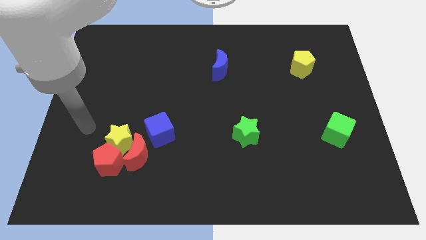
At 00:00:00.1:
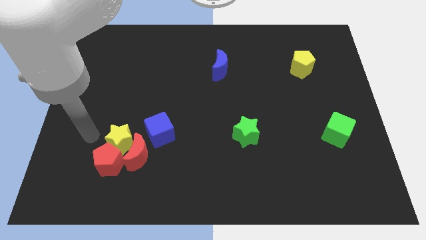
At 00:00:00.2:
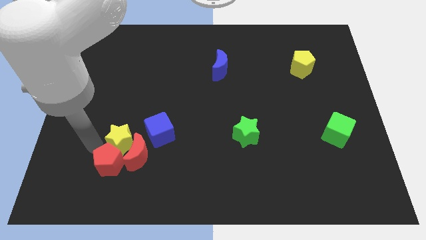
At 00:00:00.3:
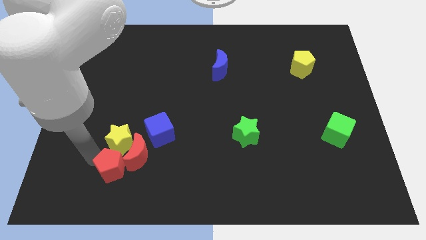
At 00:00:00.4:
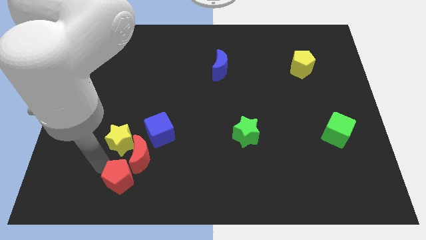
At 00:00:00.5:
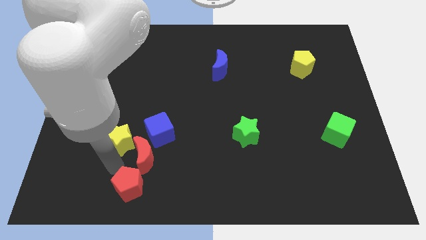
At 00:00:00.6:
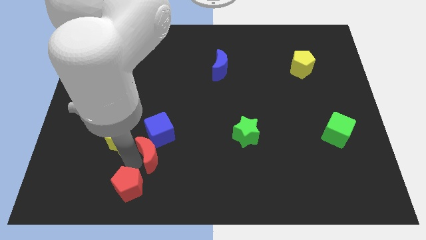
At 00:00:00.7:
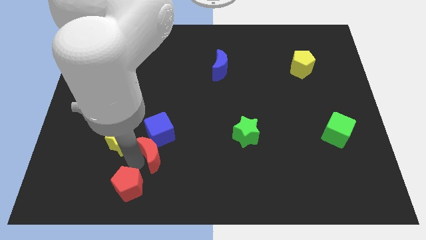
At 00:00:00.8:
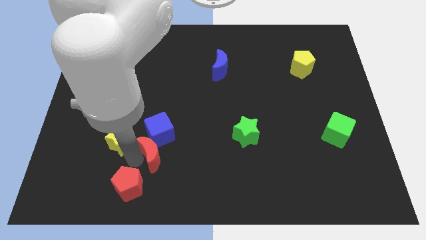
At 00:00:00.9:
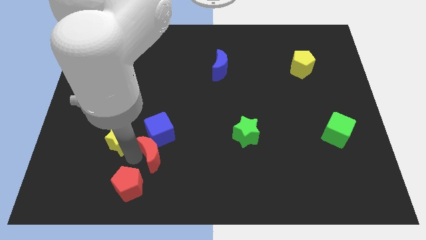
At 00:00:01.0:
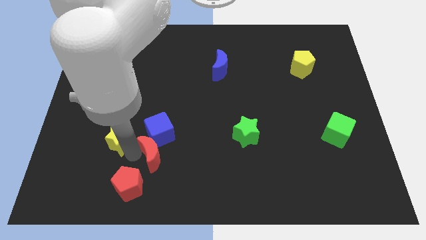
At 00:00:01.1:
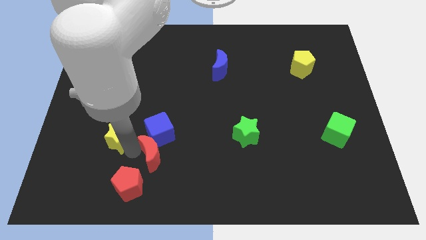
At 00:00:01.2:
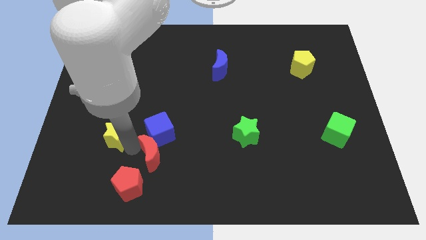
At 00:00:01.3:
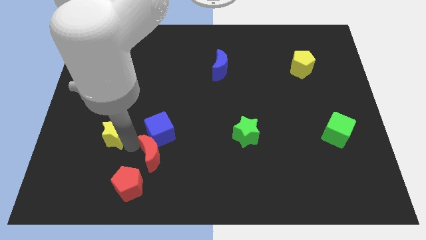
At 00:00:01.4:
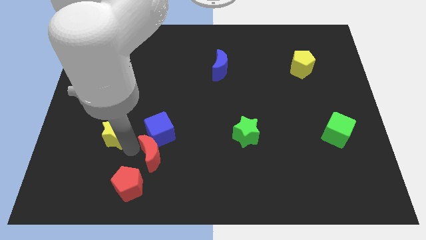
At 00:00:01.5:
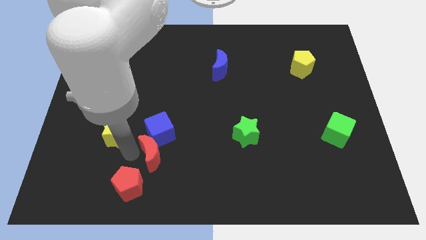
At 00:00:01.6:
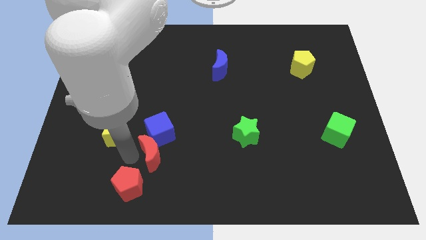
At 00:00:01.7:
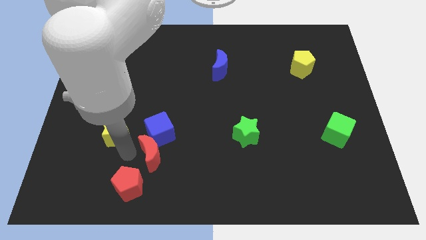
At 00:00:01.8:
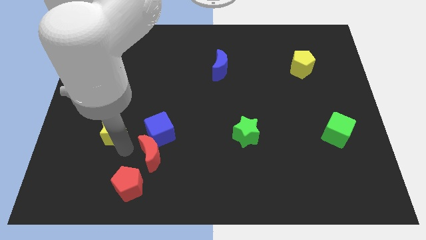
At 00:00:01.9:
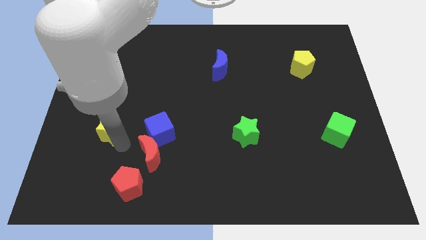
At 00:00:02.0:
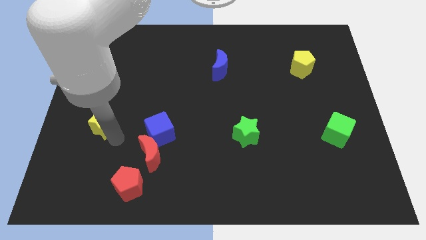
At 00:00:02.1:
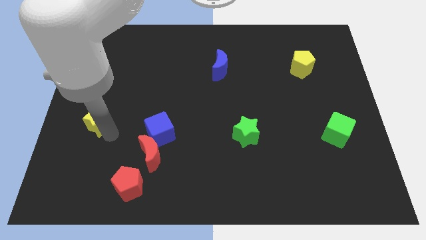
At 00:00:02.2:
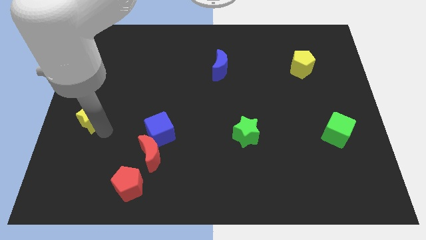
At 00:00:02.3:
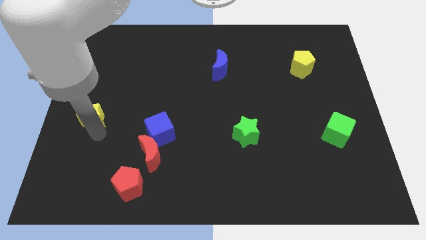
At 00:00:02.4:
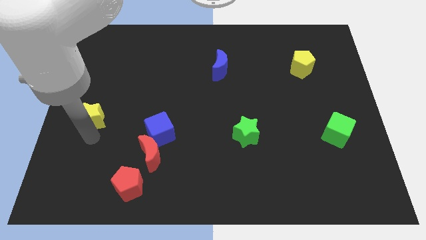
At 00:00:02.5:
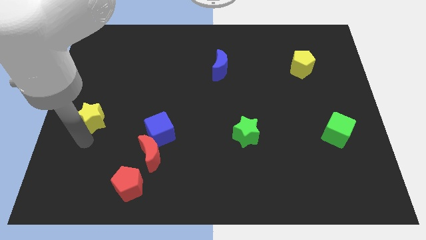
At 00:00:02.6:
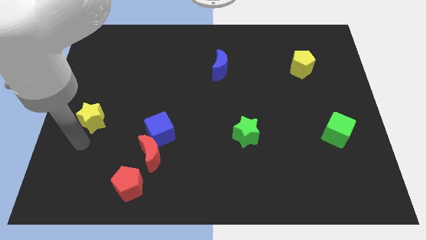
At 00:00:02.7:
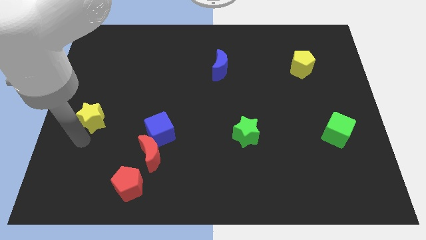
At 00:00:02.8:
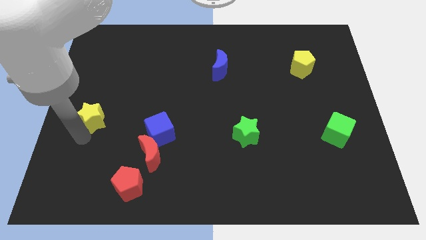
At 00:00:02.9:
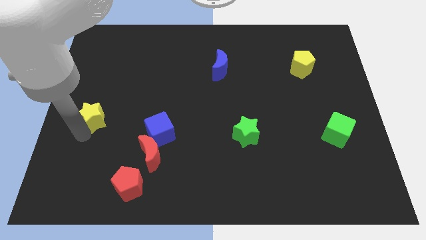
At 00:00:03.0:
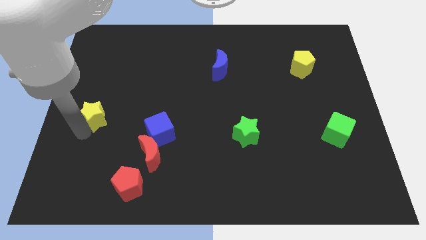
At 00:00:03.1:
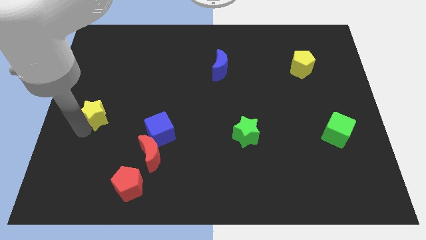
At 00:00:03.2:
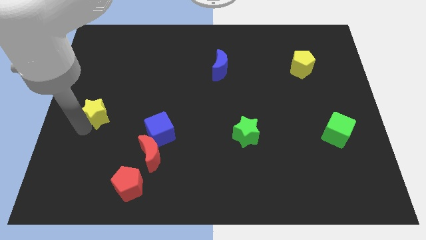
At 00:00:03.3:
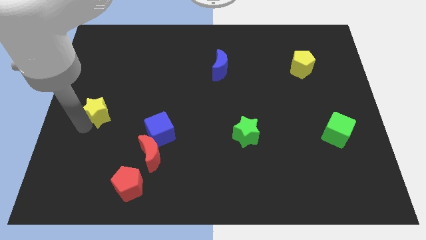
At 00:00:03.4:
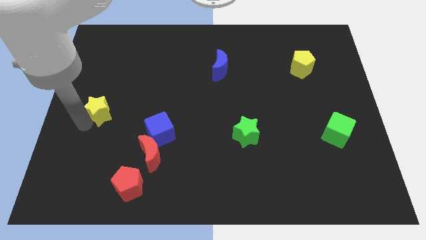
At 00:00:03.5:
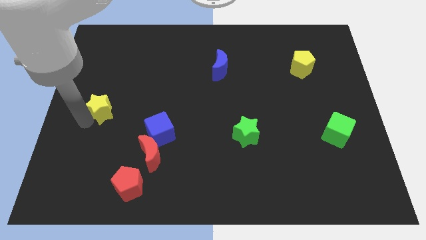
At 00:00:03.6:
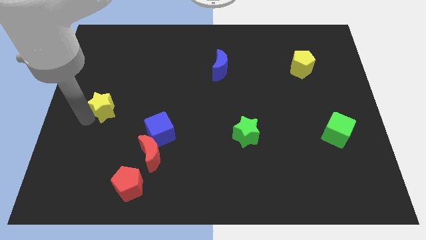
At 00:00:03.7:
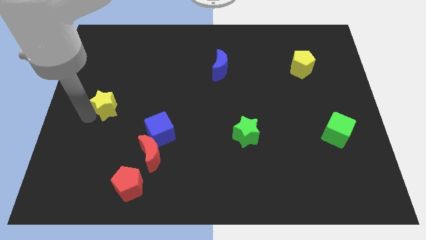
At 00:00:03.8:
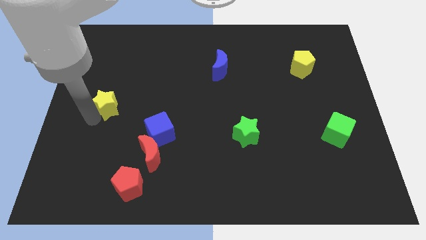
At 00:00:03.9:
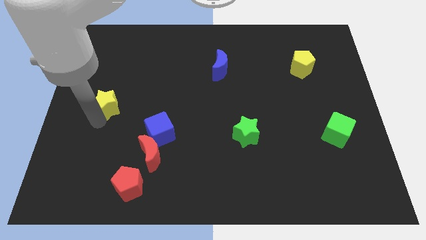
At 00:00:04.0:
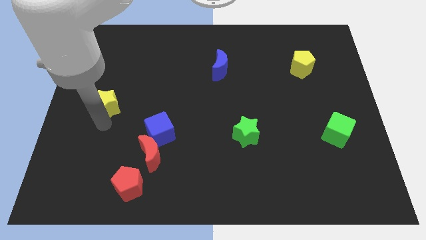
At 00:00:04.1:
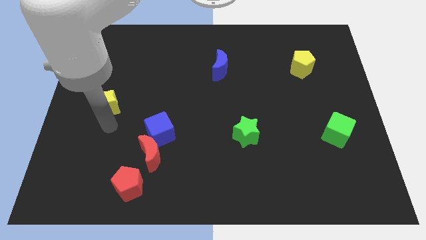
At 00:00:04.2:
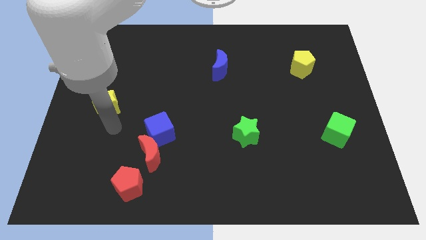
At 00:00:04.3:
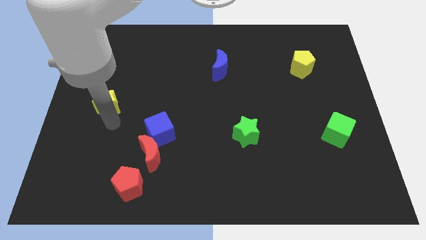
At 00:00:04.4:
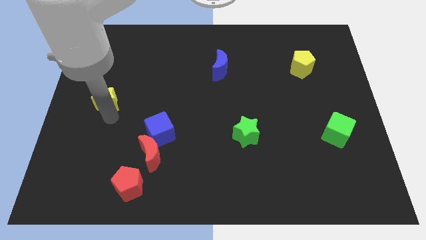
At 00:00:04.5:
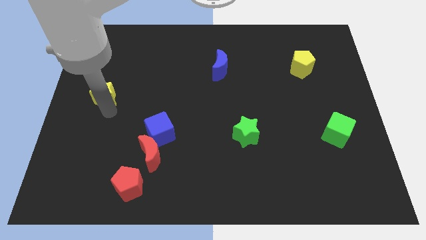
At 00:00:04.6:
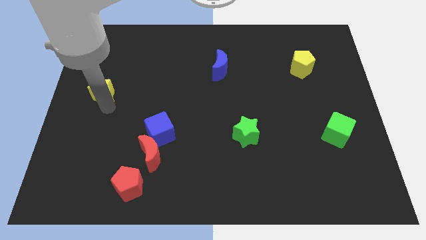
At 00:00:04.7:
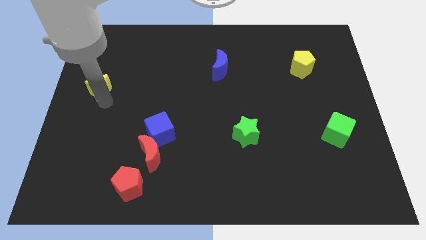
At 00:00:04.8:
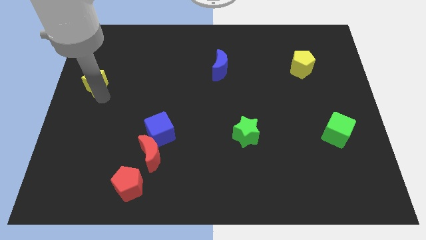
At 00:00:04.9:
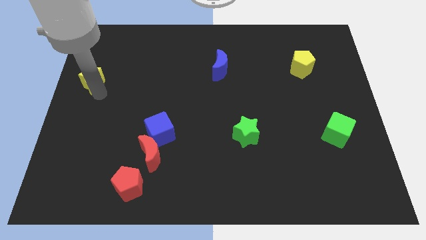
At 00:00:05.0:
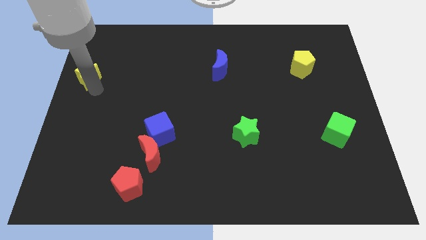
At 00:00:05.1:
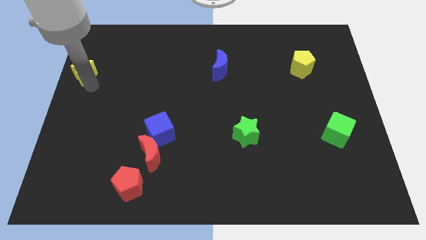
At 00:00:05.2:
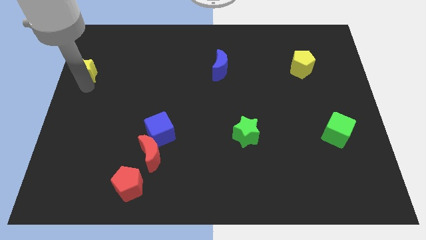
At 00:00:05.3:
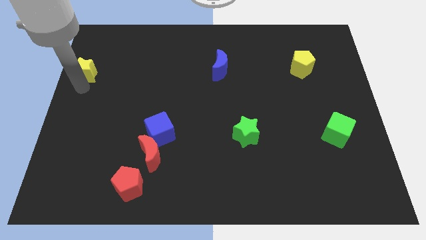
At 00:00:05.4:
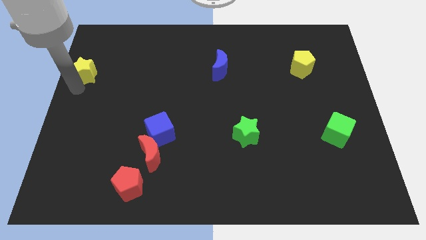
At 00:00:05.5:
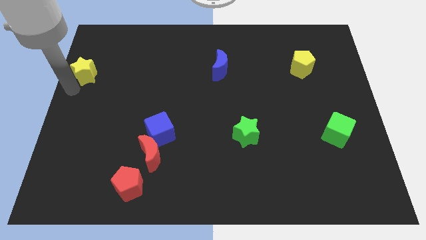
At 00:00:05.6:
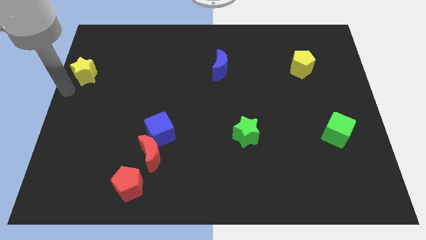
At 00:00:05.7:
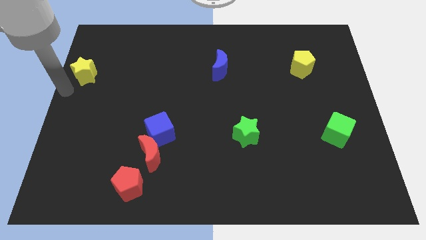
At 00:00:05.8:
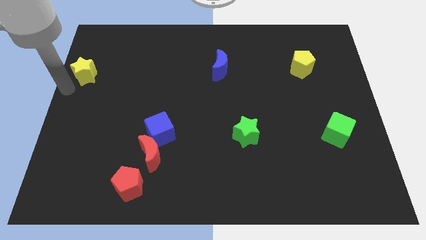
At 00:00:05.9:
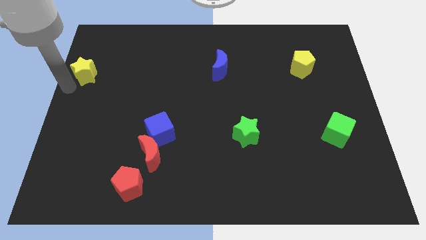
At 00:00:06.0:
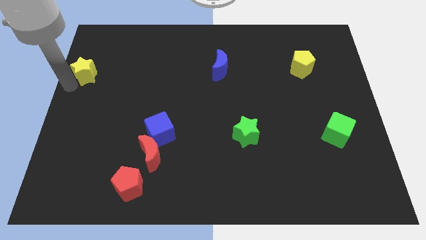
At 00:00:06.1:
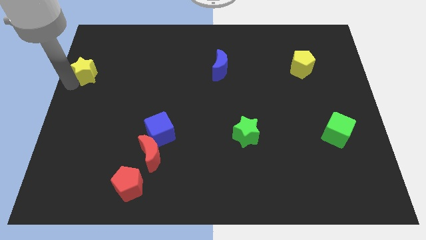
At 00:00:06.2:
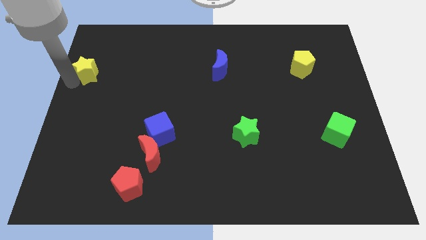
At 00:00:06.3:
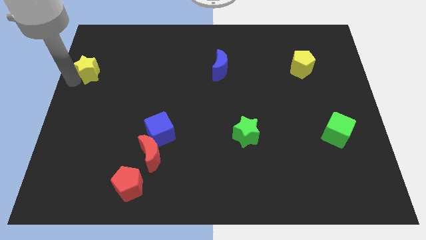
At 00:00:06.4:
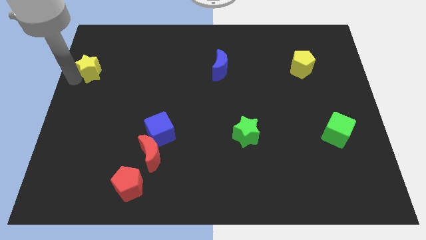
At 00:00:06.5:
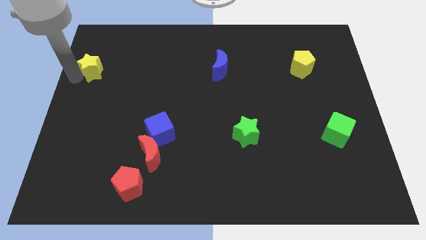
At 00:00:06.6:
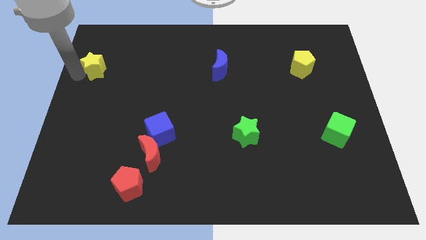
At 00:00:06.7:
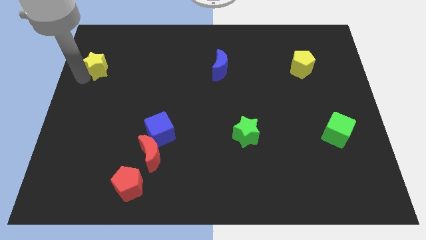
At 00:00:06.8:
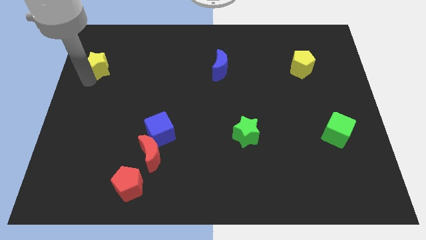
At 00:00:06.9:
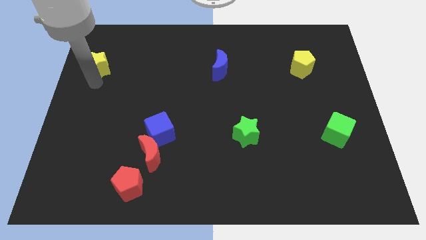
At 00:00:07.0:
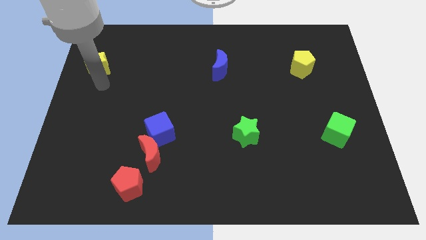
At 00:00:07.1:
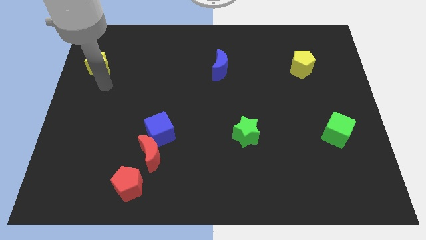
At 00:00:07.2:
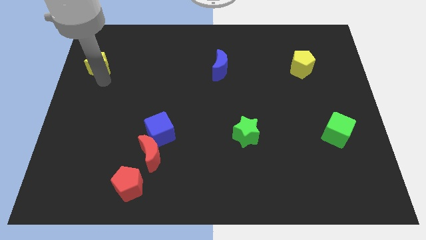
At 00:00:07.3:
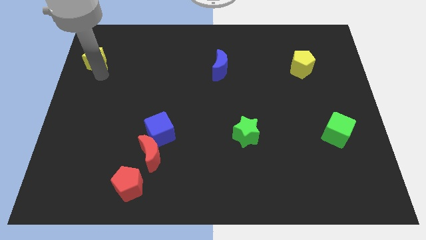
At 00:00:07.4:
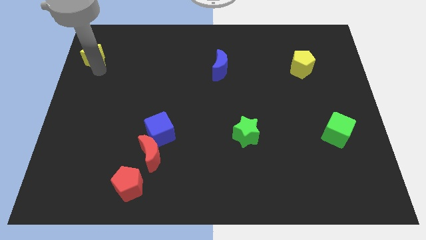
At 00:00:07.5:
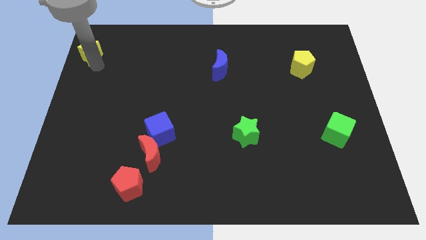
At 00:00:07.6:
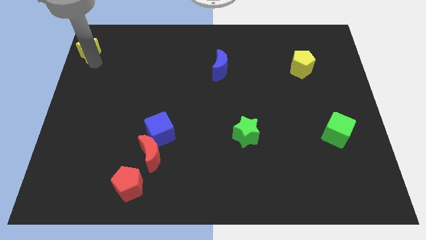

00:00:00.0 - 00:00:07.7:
put the yellow star to the upper left corner
